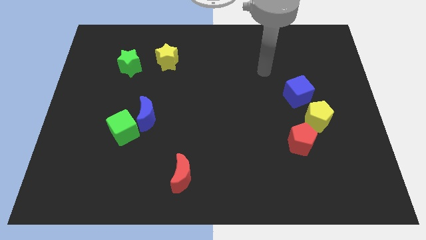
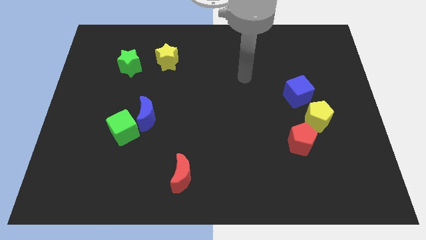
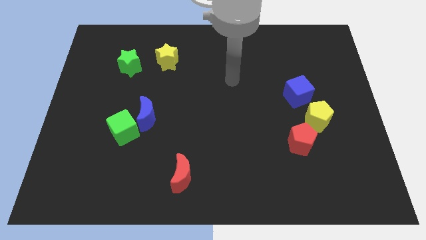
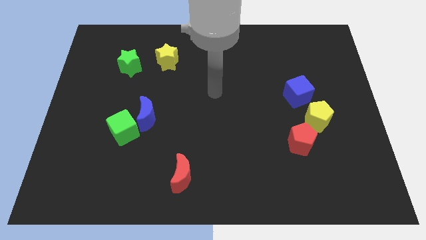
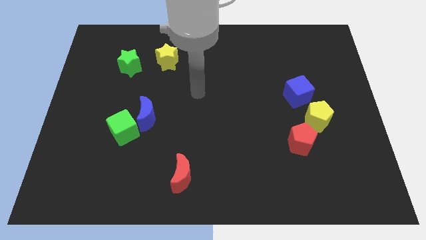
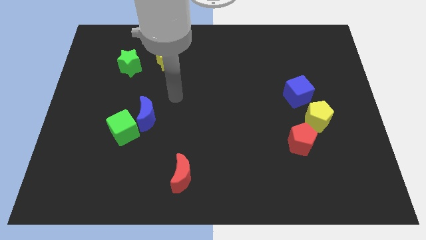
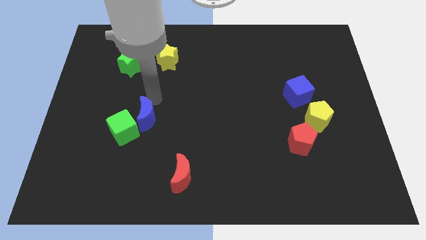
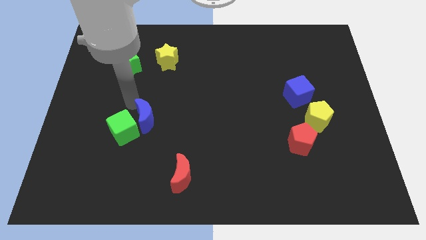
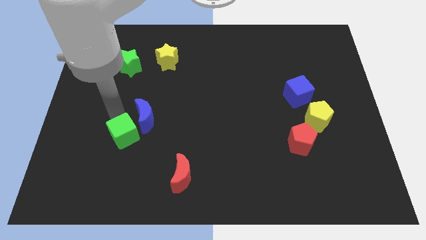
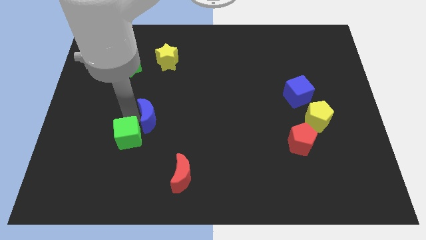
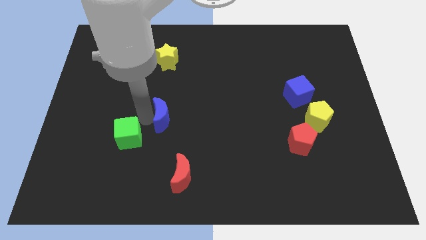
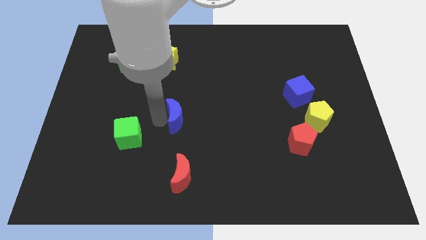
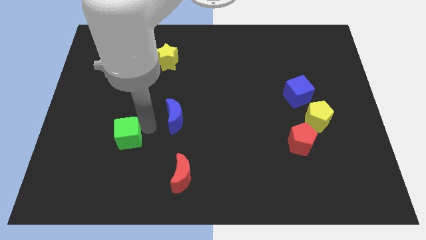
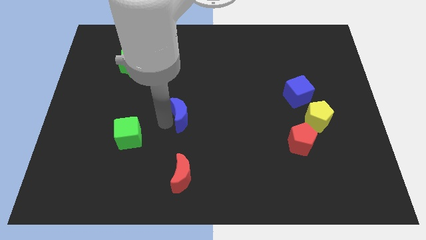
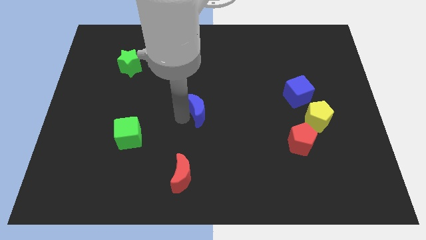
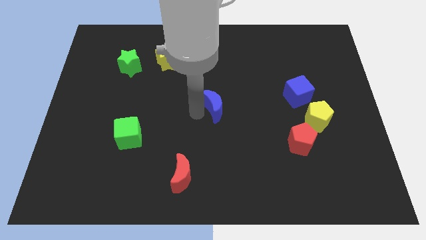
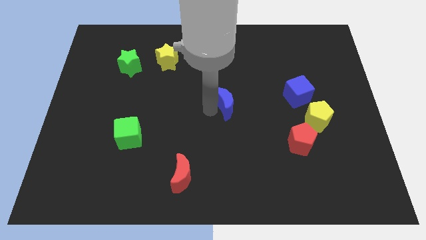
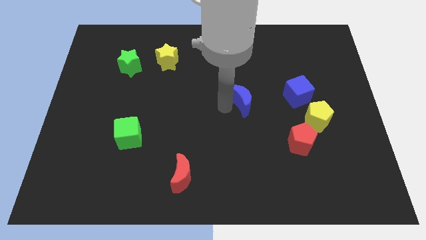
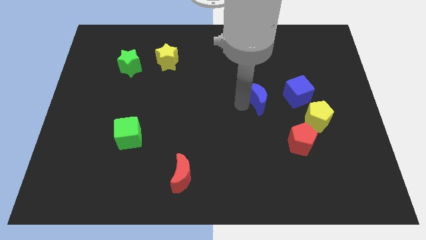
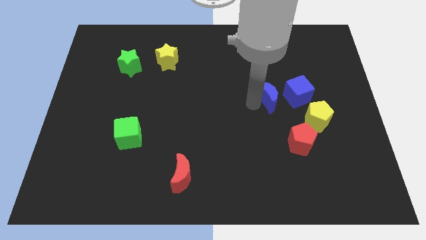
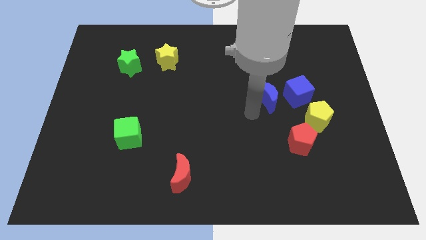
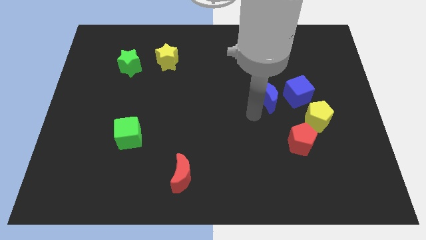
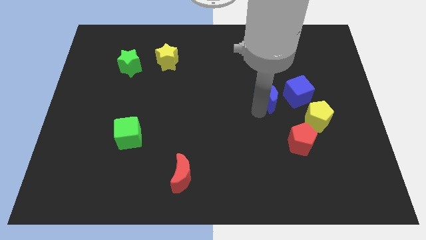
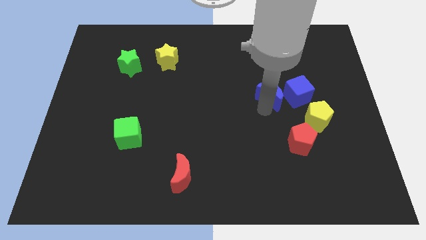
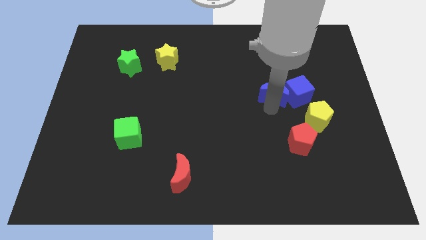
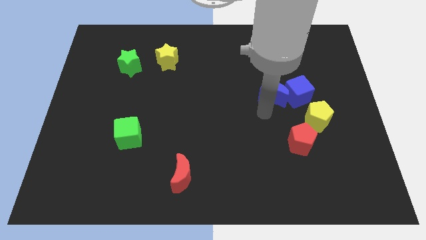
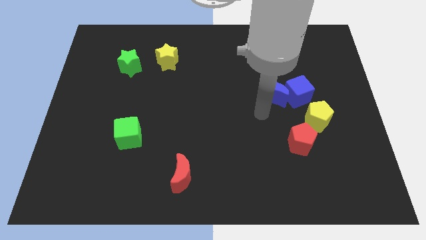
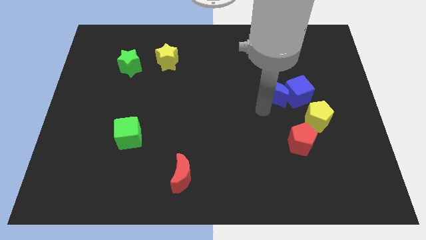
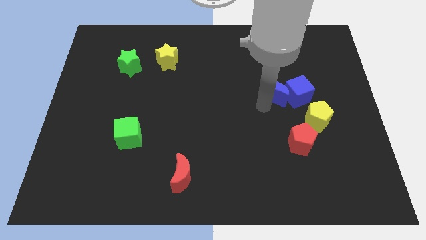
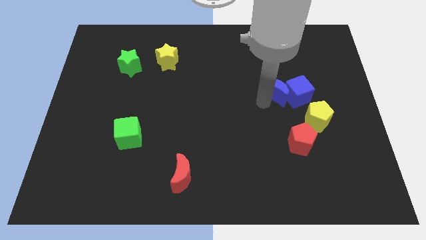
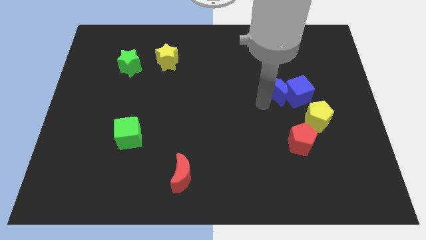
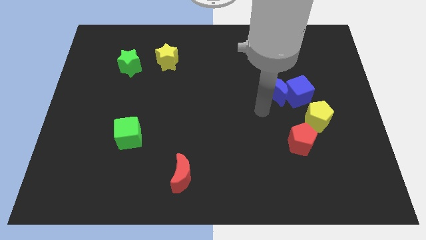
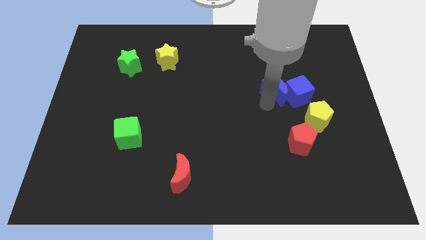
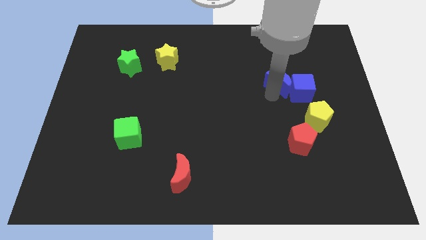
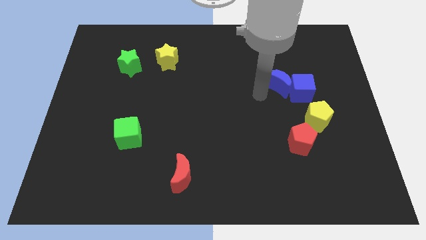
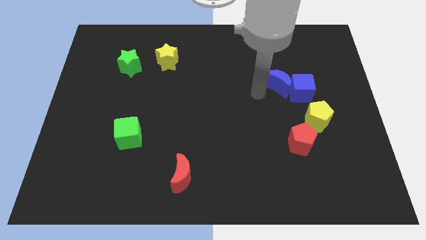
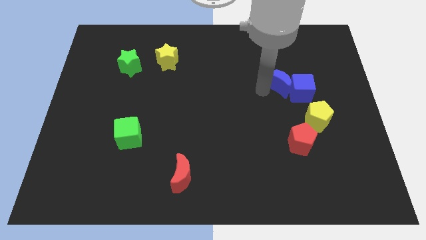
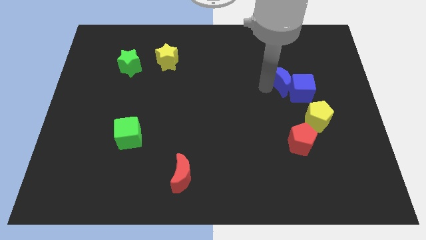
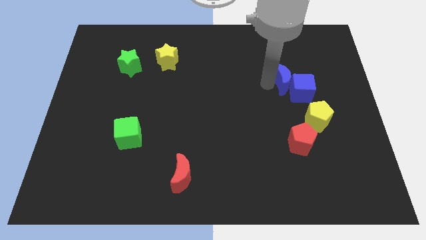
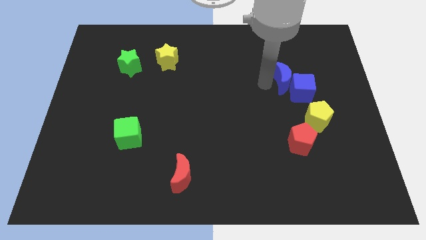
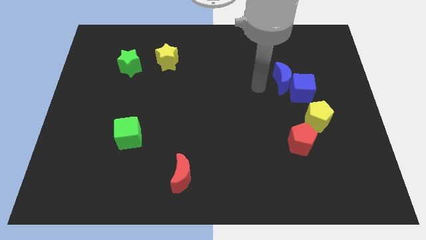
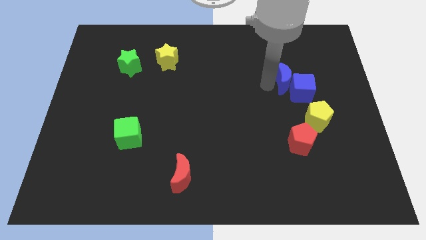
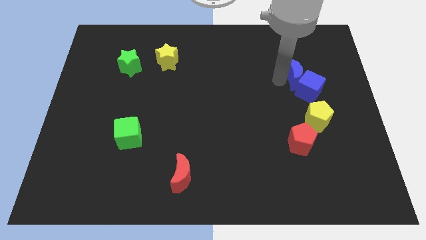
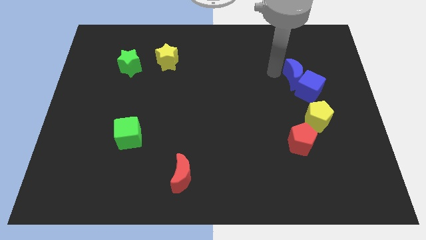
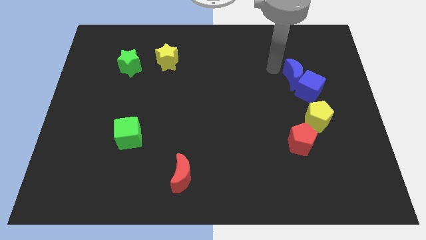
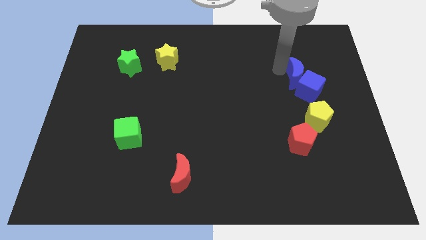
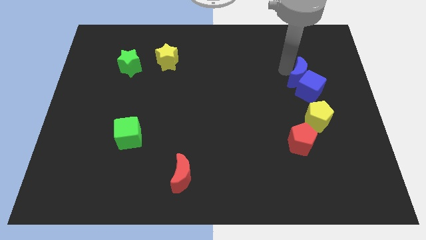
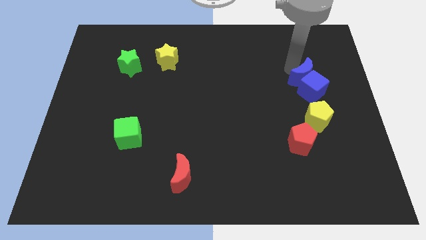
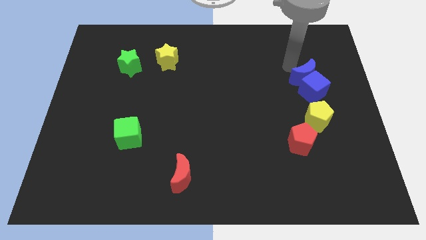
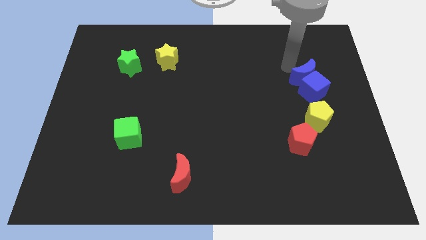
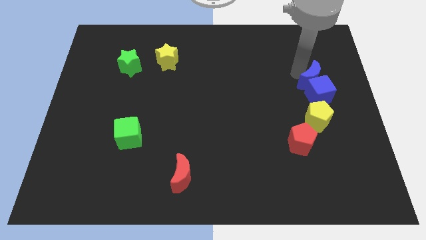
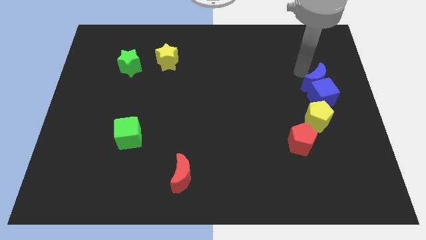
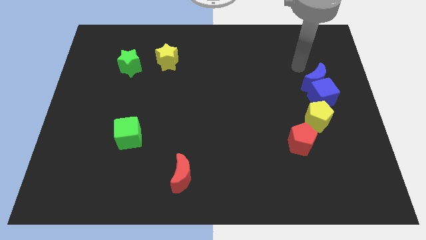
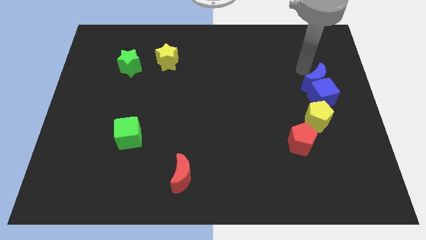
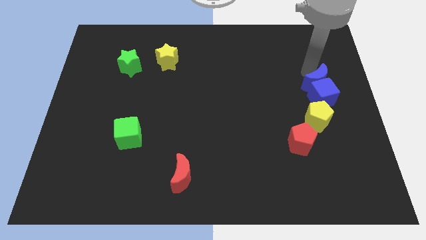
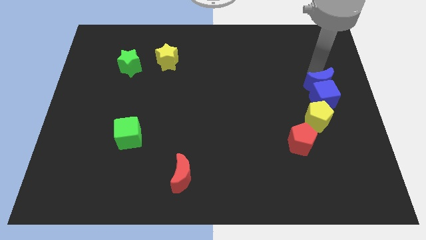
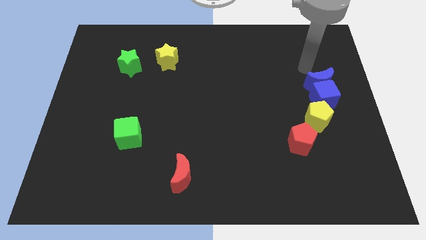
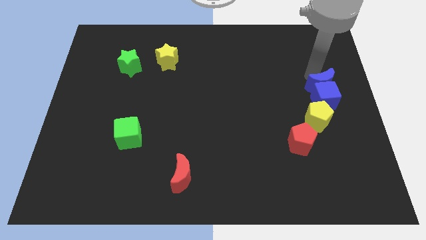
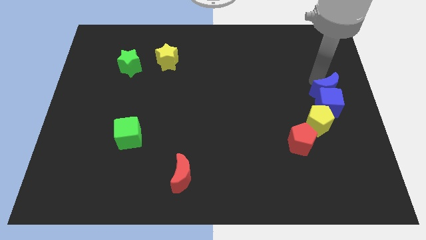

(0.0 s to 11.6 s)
move the blue moon to the top right side of the yellow pentagon

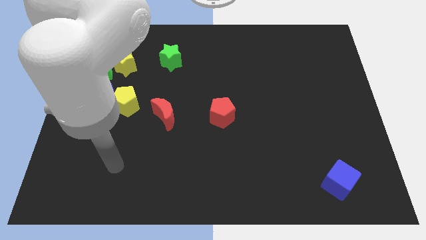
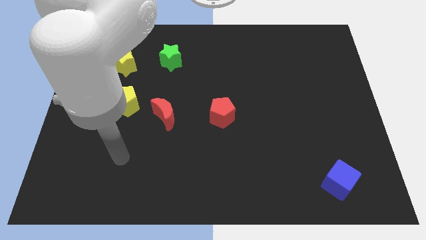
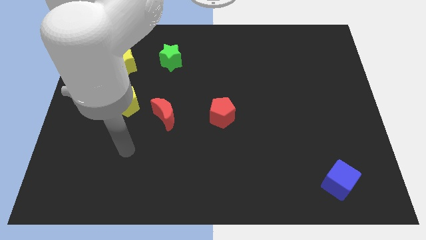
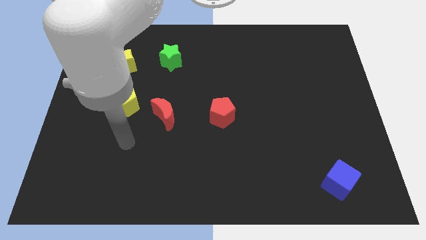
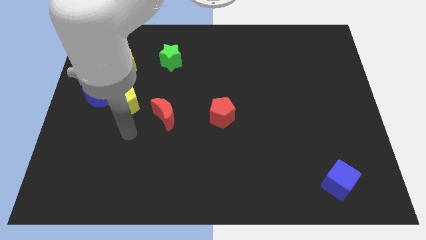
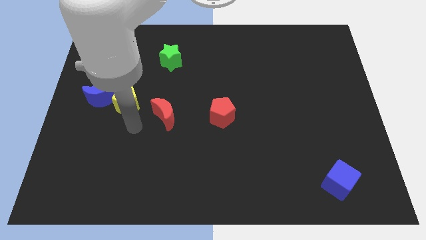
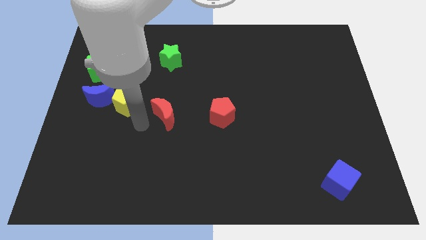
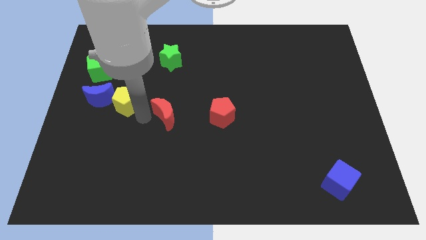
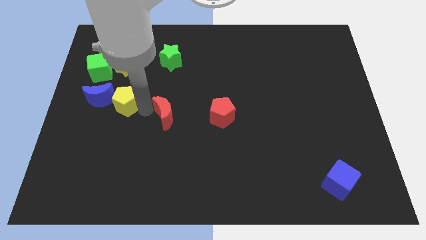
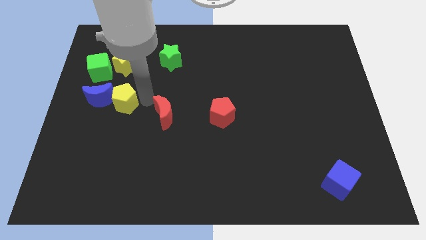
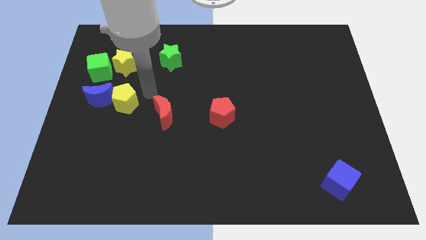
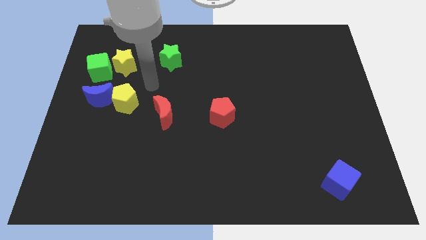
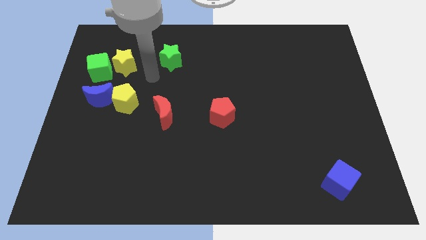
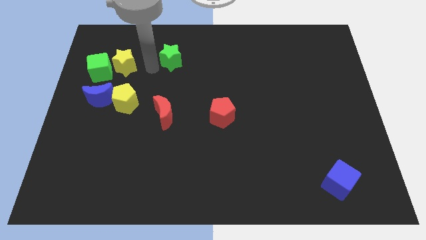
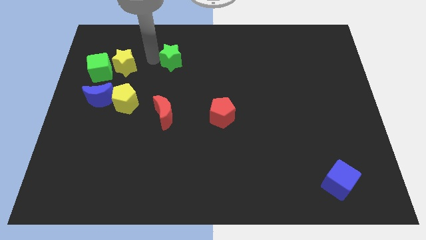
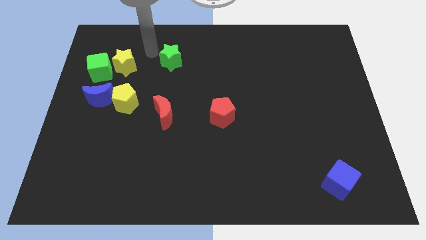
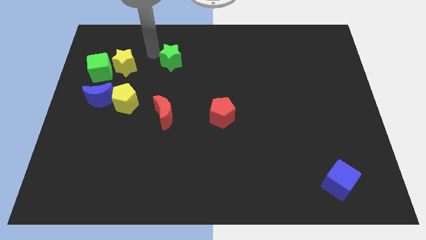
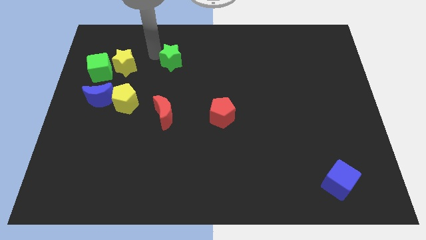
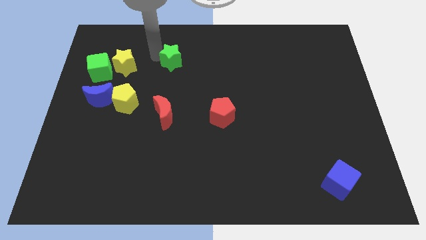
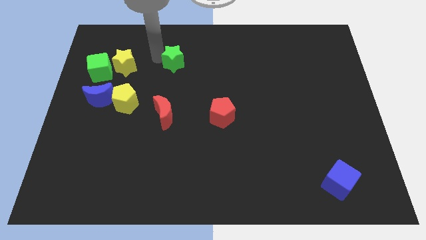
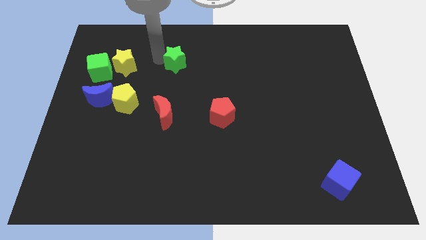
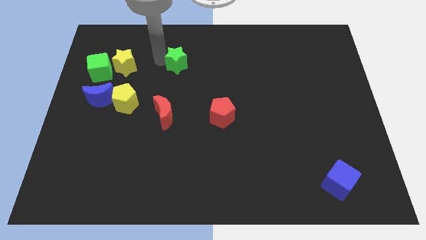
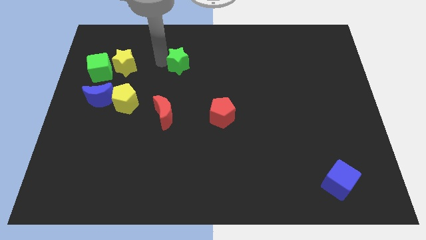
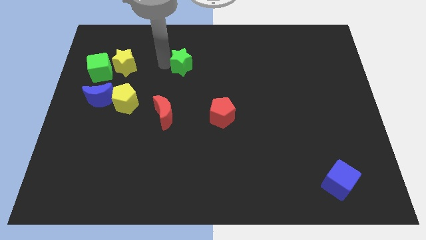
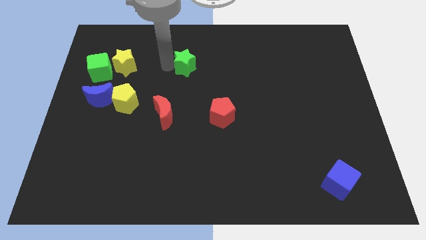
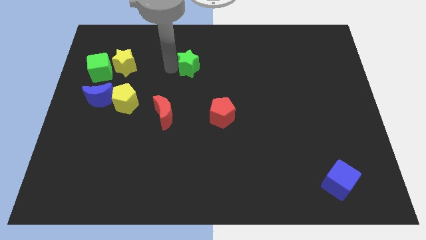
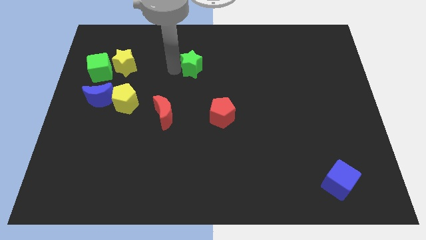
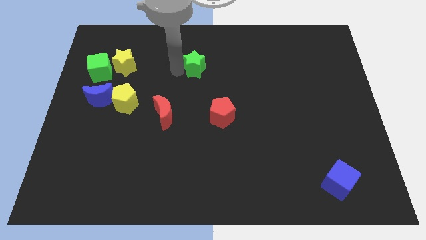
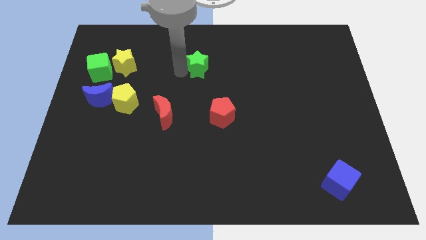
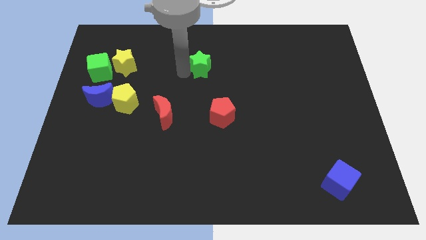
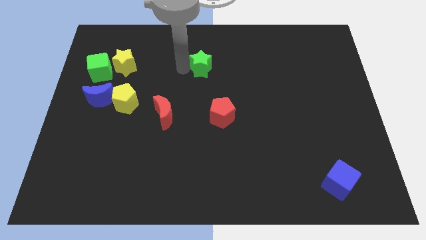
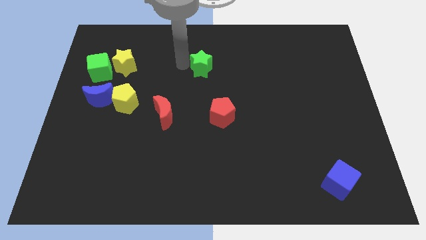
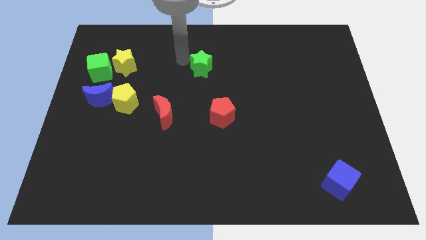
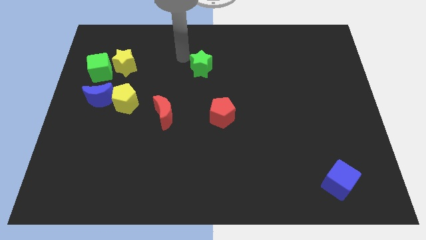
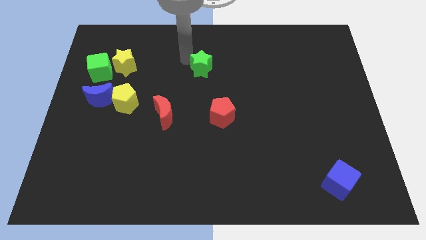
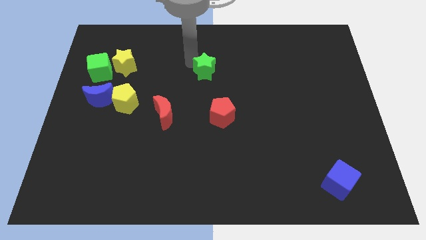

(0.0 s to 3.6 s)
slide the green star to the top of the red pentagon
